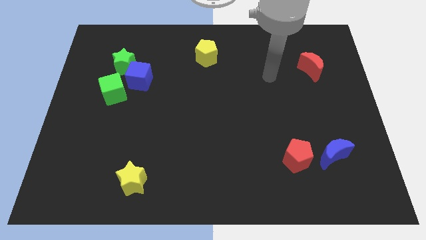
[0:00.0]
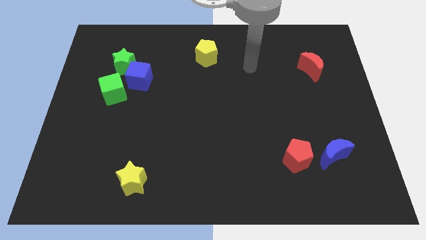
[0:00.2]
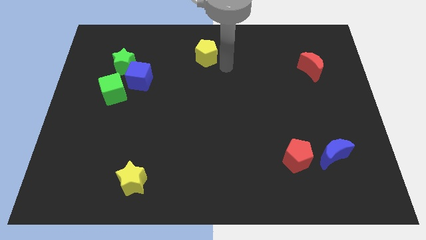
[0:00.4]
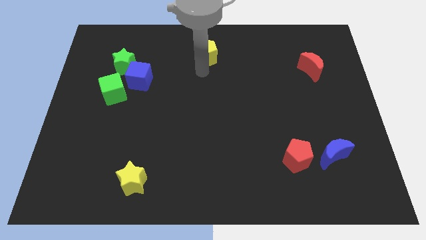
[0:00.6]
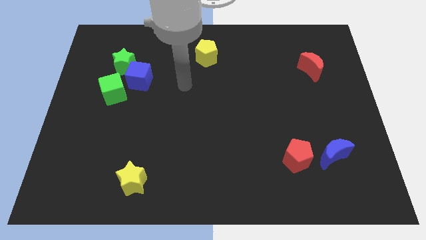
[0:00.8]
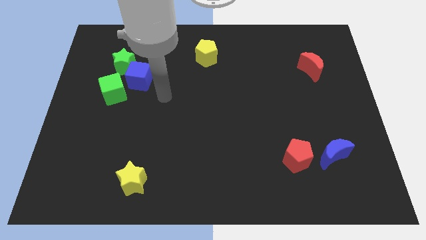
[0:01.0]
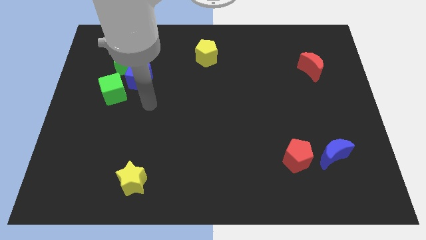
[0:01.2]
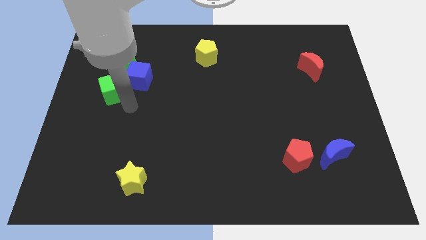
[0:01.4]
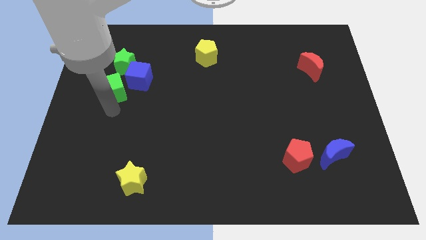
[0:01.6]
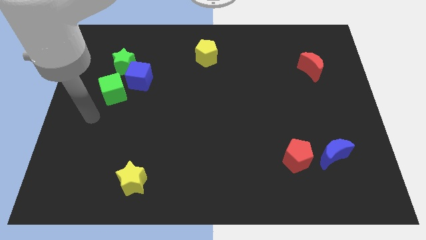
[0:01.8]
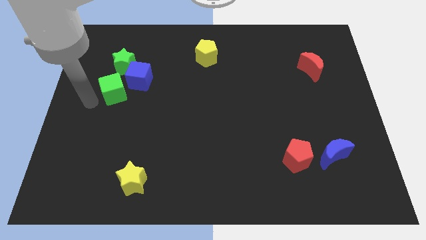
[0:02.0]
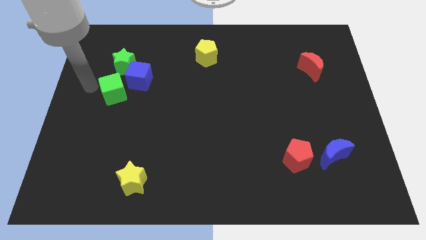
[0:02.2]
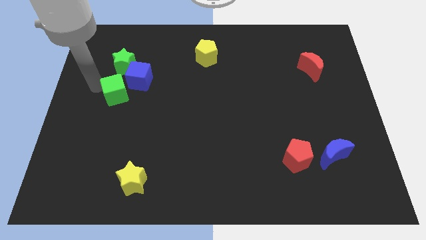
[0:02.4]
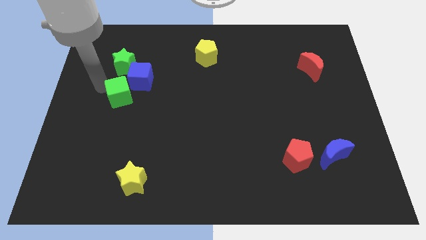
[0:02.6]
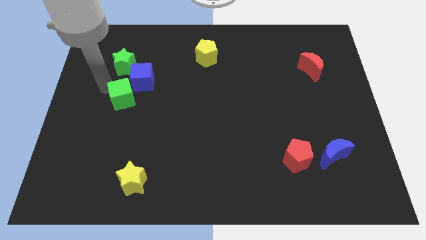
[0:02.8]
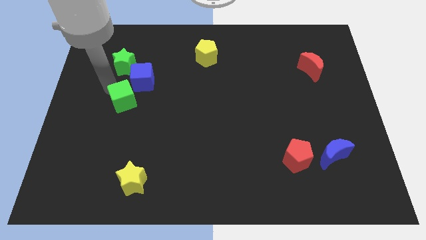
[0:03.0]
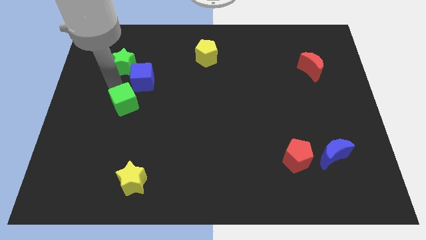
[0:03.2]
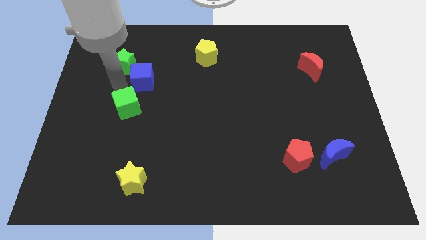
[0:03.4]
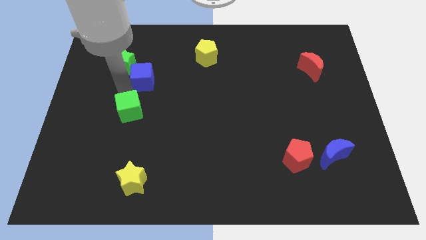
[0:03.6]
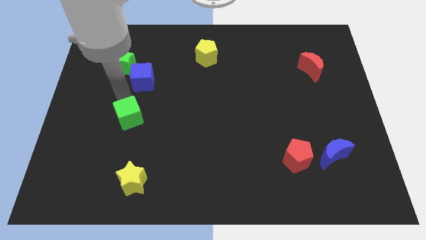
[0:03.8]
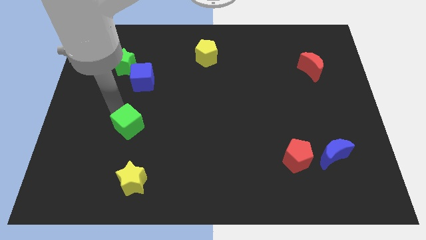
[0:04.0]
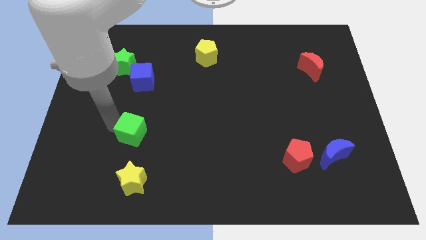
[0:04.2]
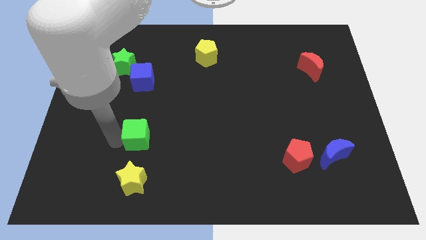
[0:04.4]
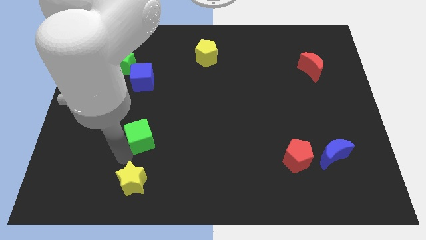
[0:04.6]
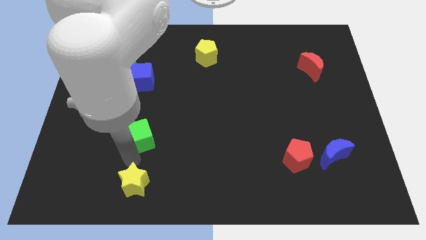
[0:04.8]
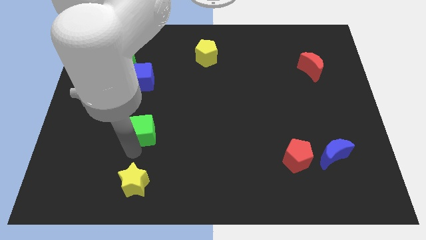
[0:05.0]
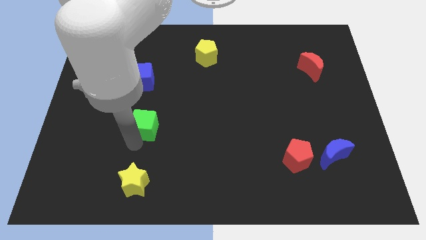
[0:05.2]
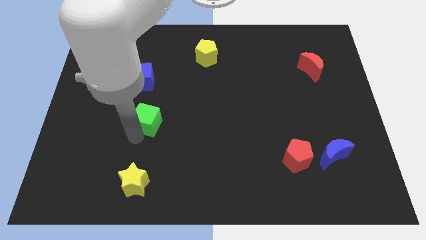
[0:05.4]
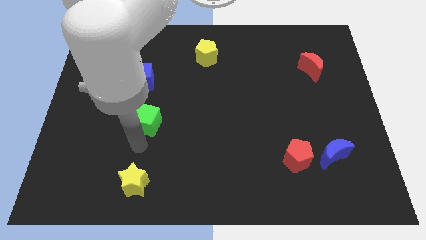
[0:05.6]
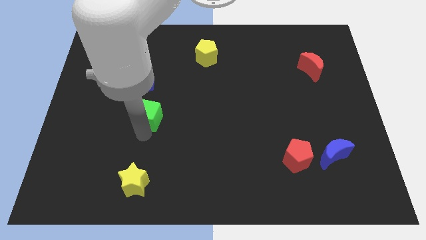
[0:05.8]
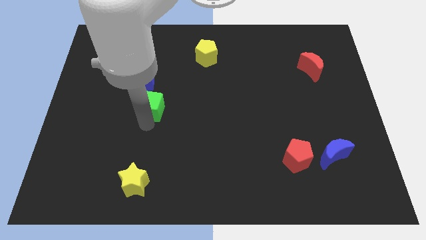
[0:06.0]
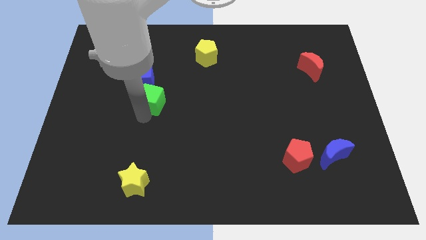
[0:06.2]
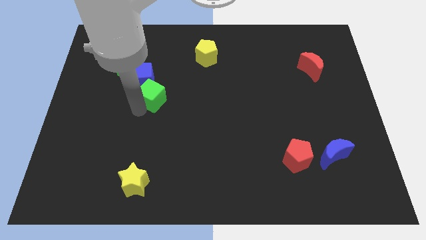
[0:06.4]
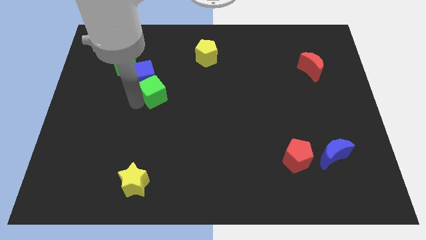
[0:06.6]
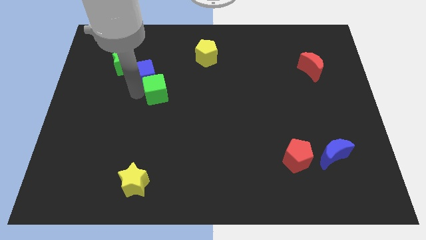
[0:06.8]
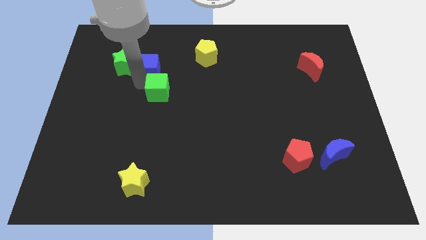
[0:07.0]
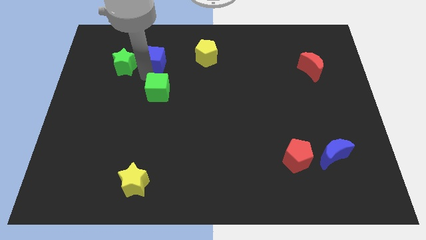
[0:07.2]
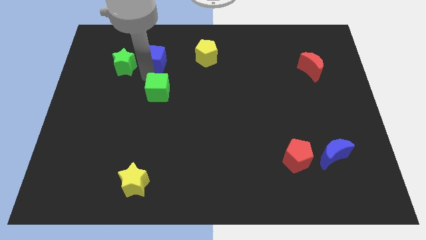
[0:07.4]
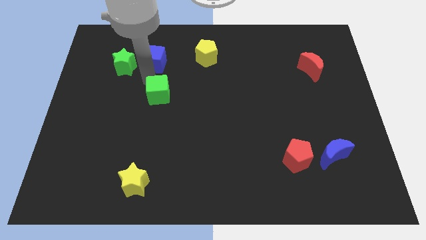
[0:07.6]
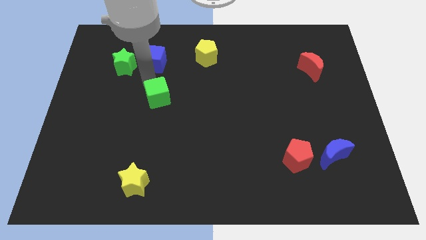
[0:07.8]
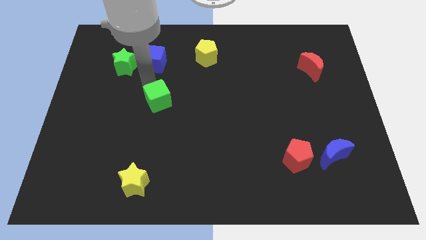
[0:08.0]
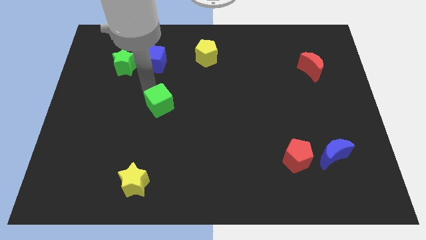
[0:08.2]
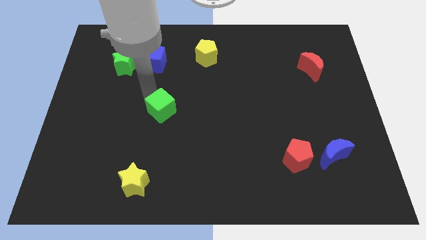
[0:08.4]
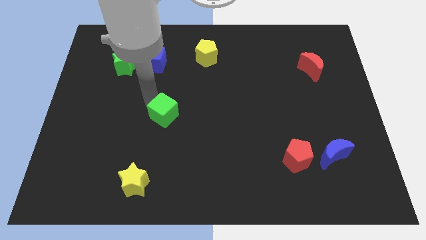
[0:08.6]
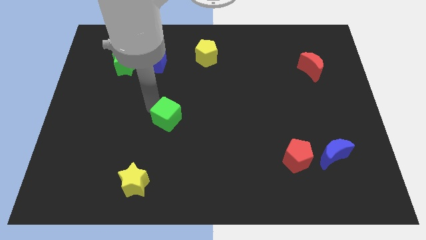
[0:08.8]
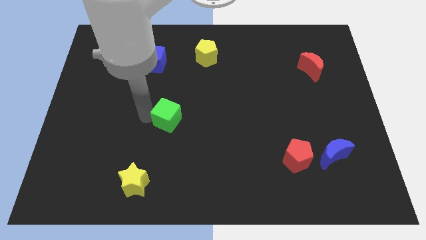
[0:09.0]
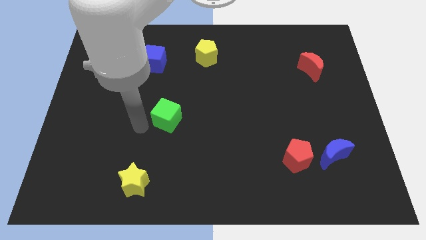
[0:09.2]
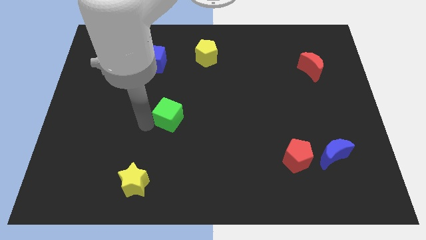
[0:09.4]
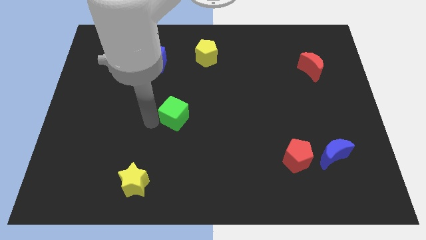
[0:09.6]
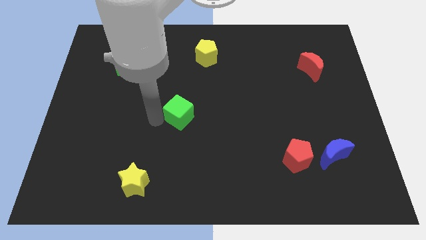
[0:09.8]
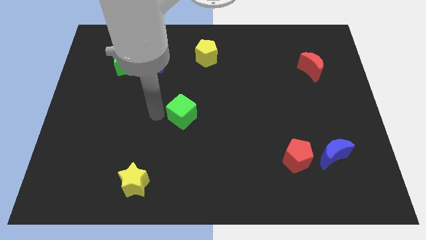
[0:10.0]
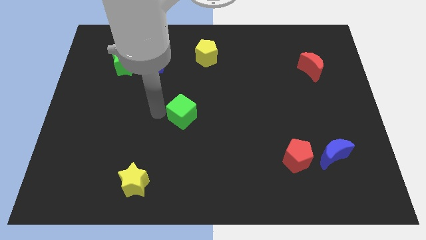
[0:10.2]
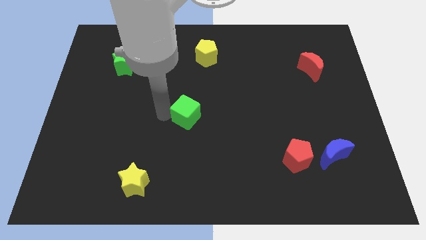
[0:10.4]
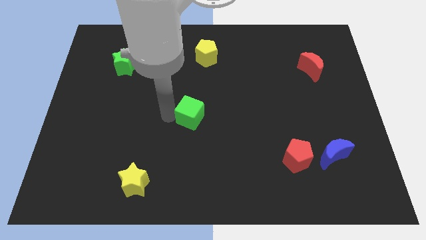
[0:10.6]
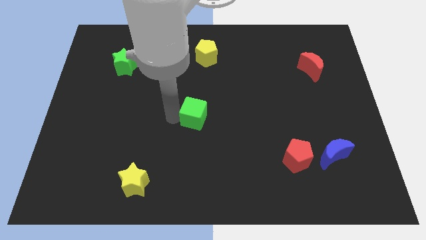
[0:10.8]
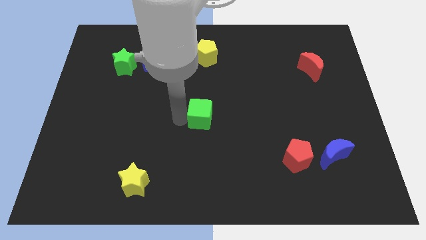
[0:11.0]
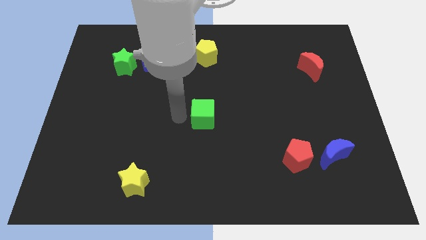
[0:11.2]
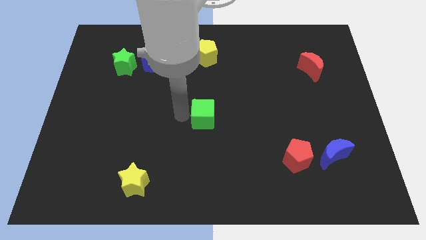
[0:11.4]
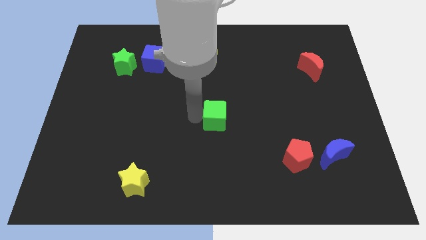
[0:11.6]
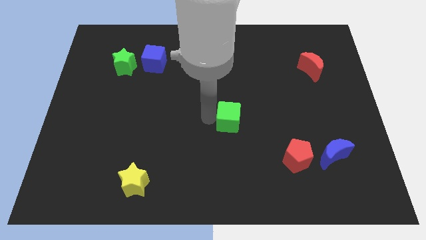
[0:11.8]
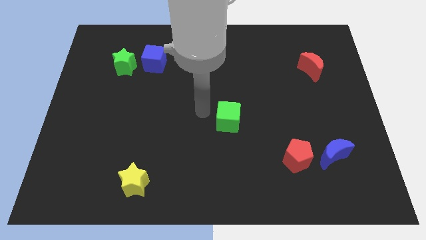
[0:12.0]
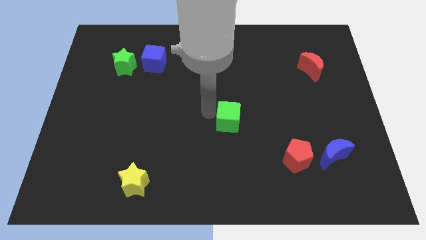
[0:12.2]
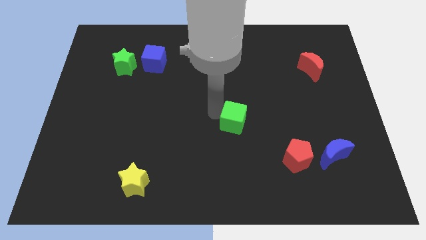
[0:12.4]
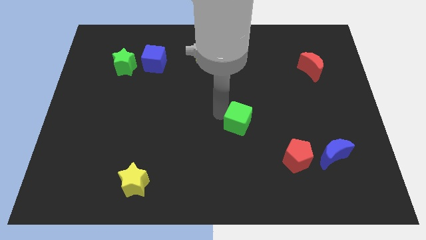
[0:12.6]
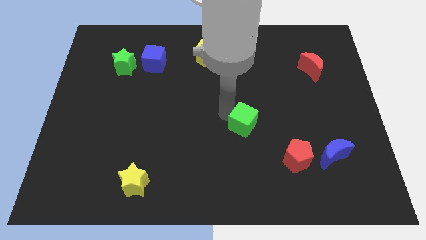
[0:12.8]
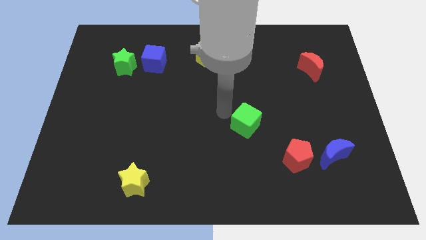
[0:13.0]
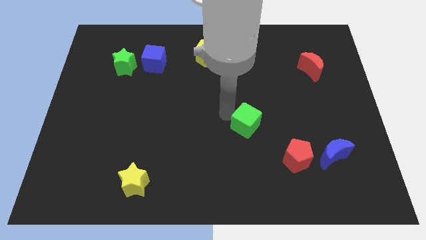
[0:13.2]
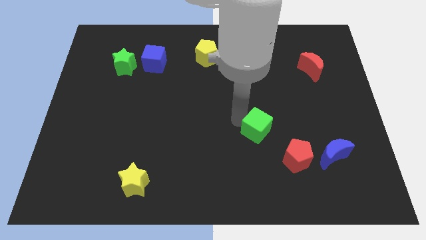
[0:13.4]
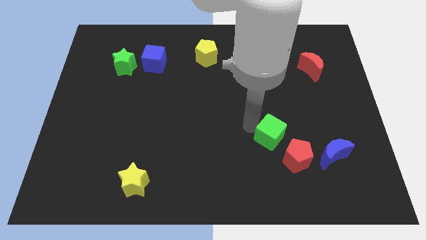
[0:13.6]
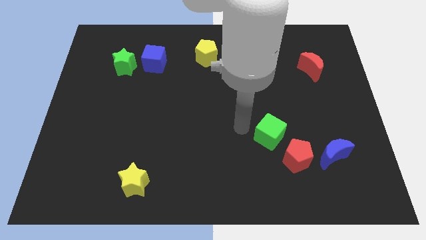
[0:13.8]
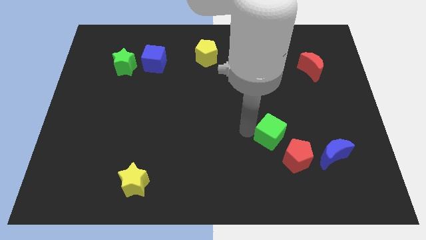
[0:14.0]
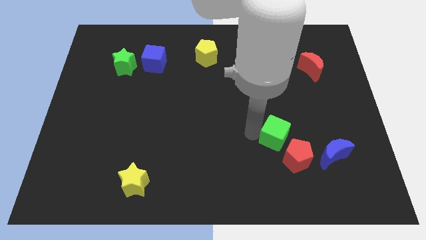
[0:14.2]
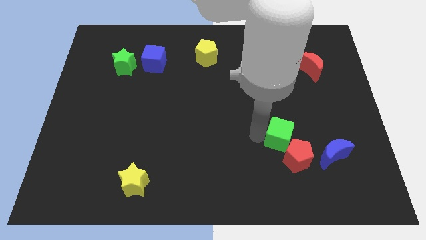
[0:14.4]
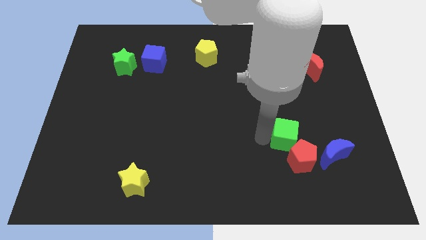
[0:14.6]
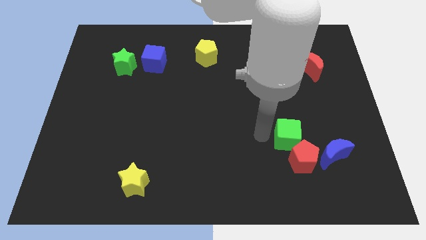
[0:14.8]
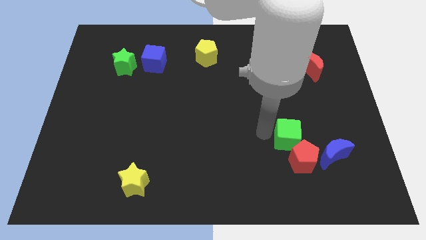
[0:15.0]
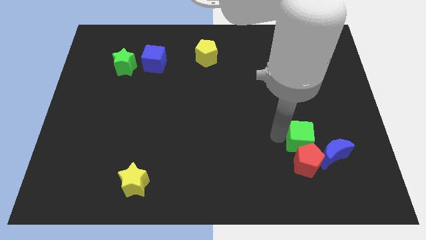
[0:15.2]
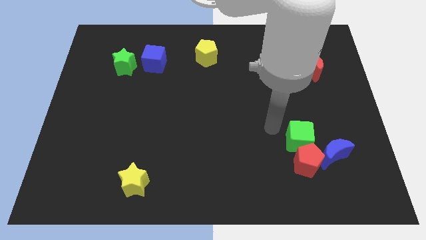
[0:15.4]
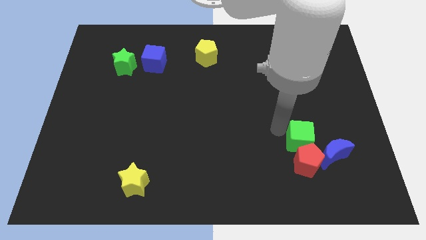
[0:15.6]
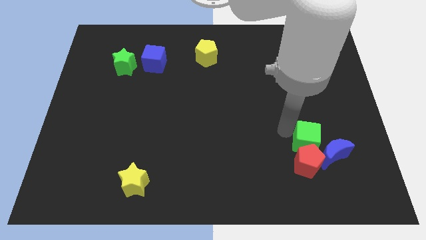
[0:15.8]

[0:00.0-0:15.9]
put the green cube to the blue moon
